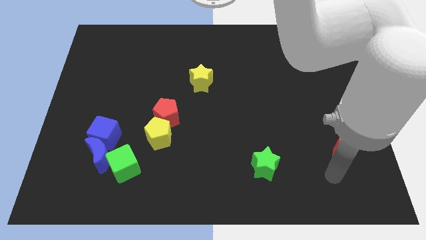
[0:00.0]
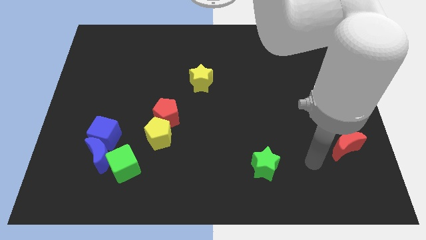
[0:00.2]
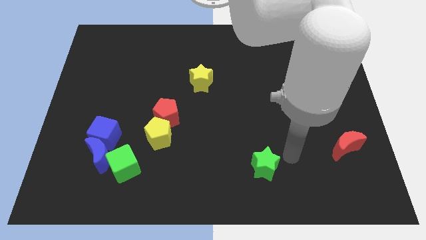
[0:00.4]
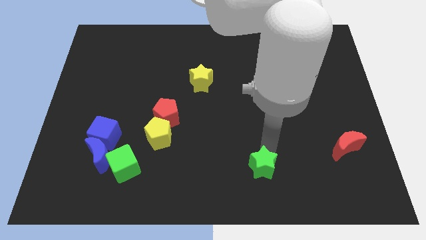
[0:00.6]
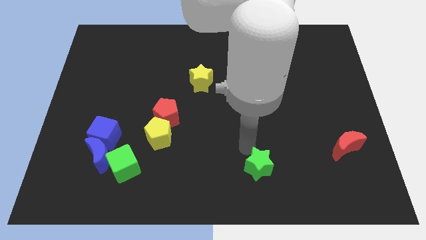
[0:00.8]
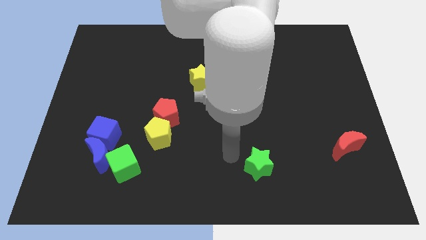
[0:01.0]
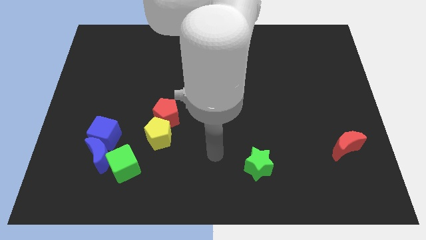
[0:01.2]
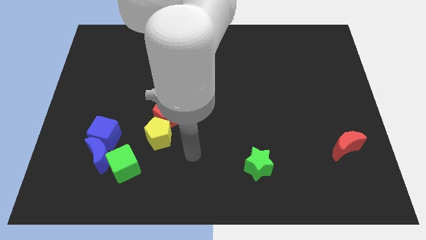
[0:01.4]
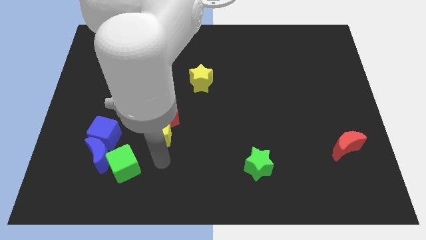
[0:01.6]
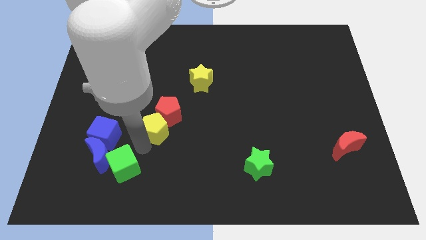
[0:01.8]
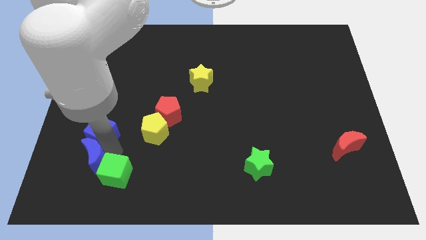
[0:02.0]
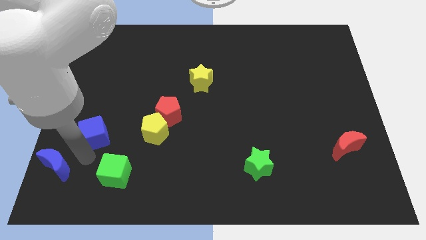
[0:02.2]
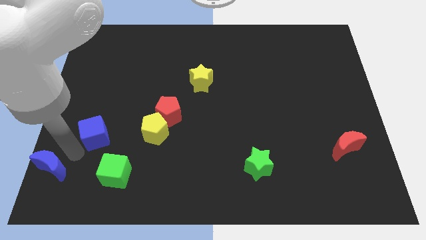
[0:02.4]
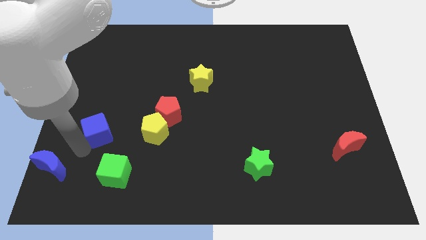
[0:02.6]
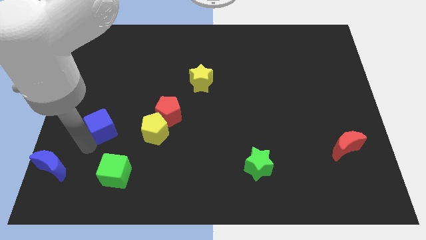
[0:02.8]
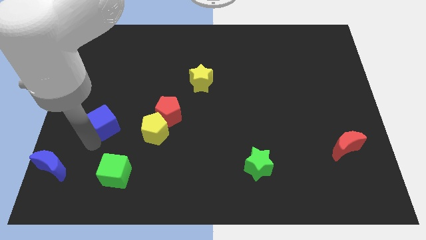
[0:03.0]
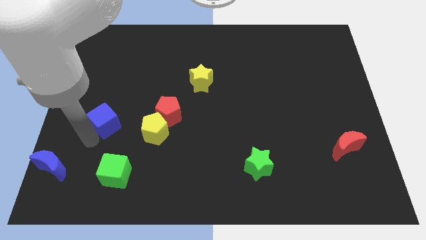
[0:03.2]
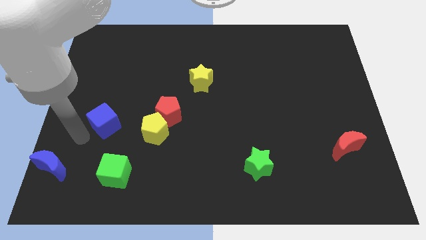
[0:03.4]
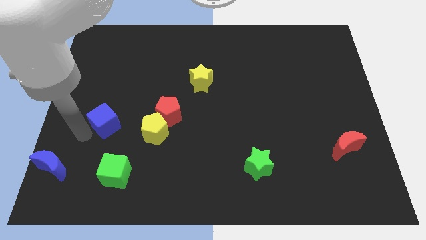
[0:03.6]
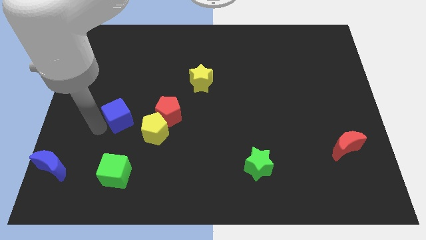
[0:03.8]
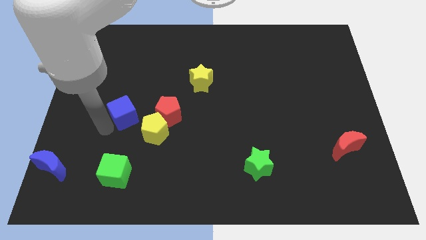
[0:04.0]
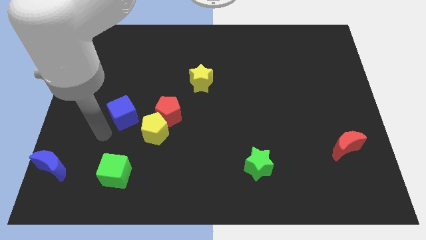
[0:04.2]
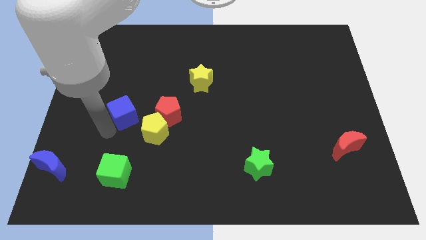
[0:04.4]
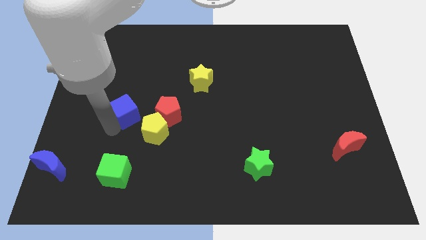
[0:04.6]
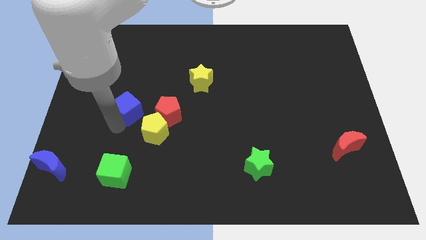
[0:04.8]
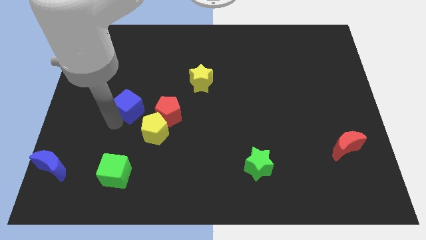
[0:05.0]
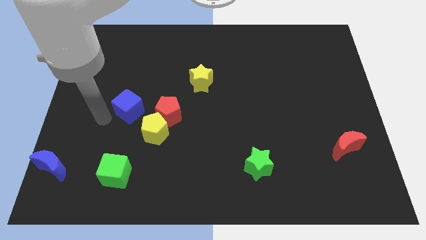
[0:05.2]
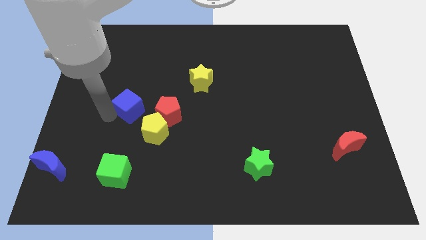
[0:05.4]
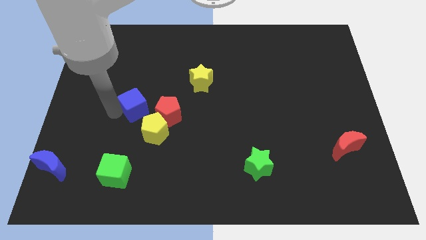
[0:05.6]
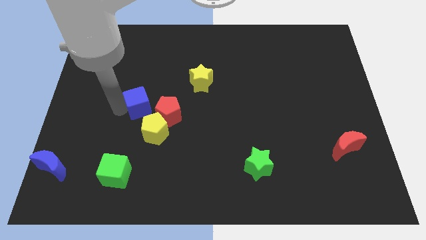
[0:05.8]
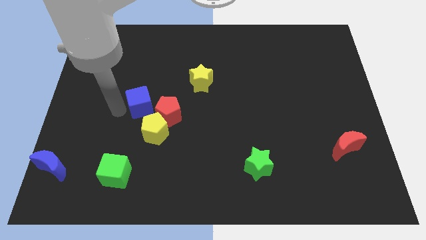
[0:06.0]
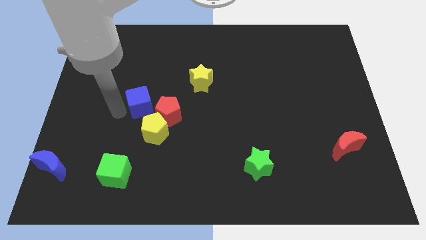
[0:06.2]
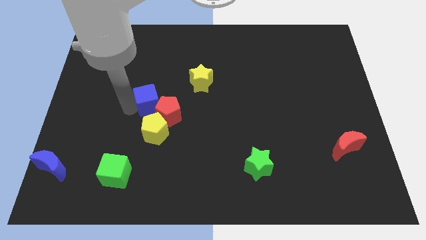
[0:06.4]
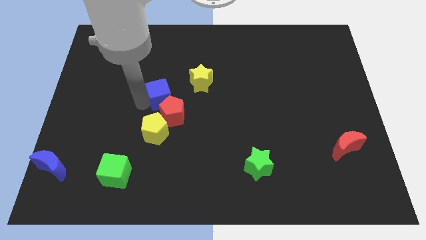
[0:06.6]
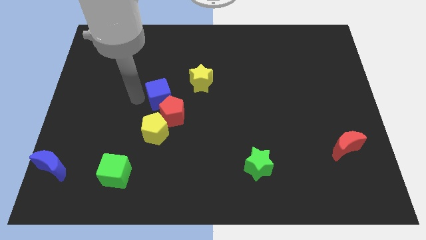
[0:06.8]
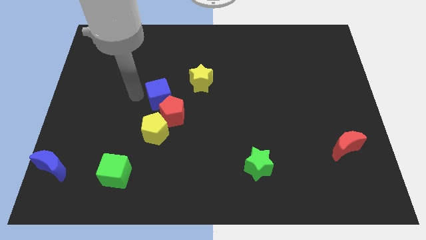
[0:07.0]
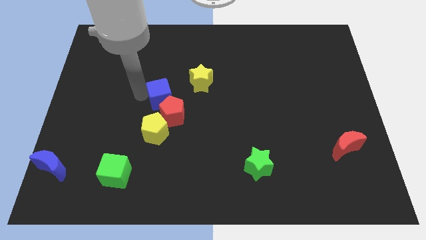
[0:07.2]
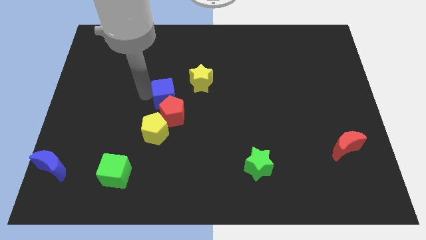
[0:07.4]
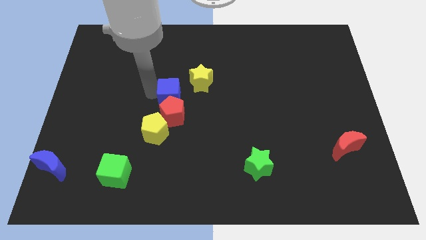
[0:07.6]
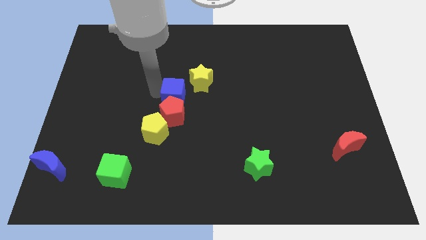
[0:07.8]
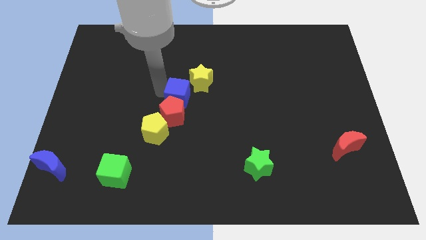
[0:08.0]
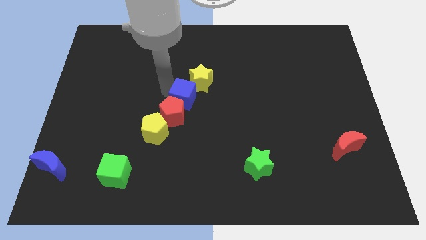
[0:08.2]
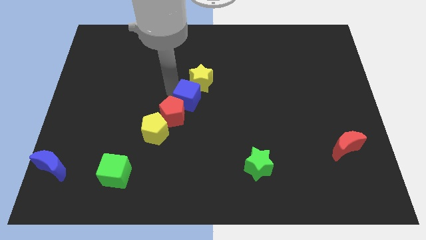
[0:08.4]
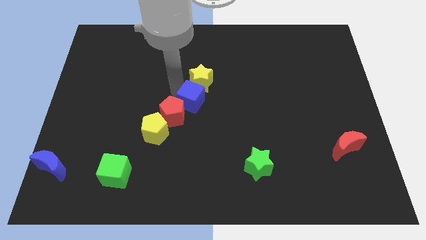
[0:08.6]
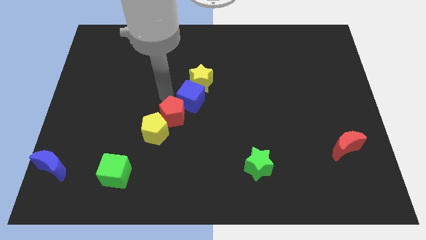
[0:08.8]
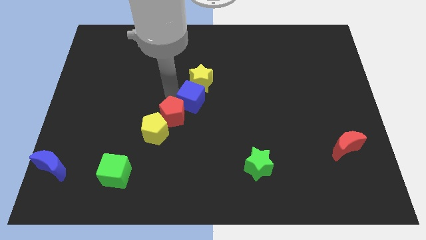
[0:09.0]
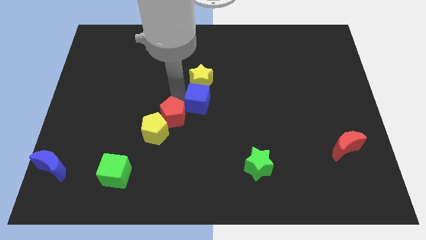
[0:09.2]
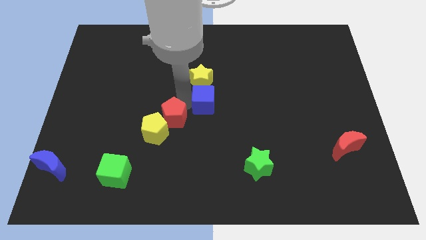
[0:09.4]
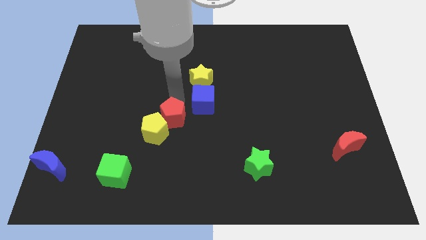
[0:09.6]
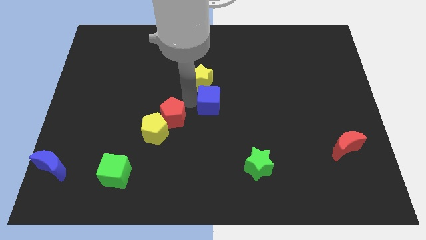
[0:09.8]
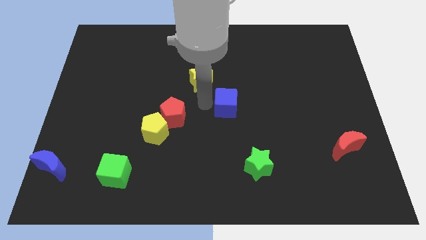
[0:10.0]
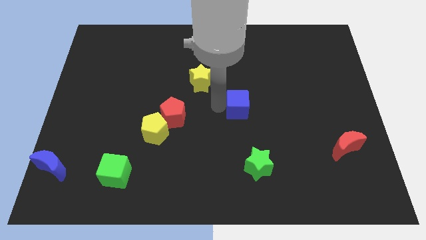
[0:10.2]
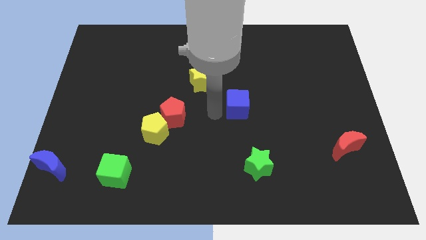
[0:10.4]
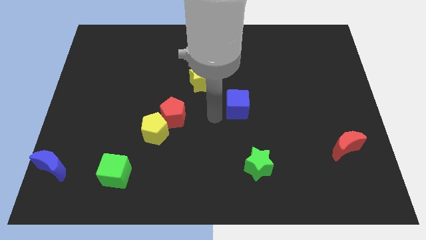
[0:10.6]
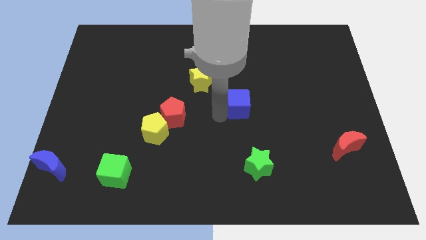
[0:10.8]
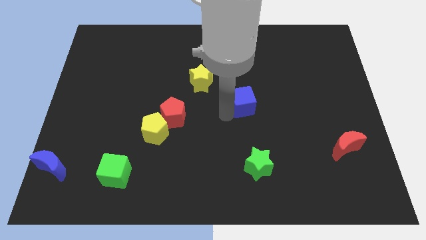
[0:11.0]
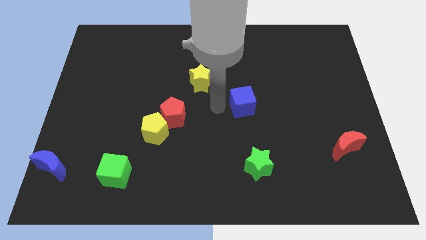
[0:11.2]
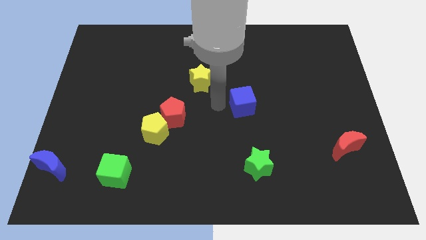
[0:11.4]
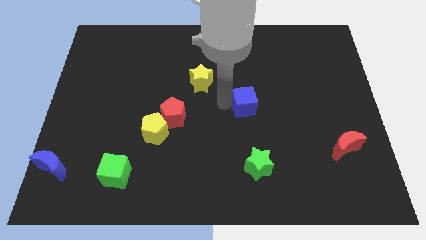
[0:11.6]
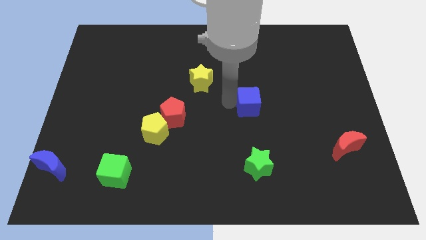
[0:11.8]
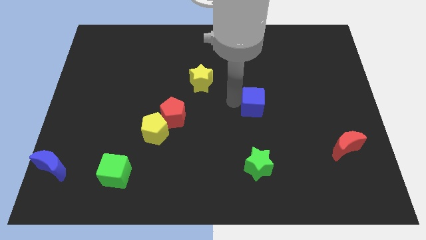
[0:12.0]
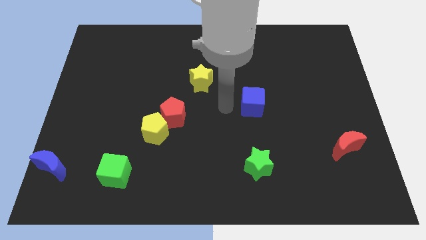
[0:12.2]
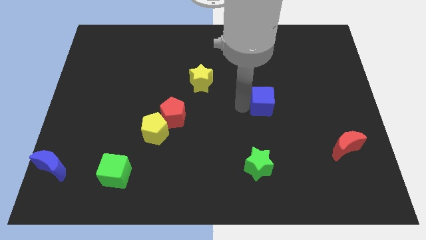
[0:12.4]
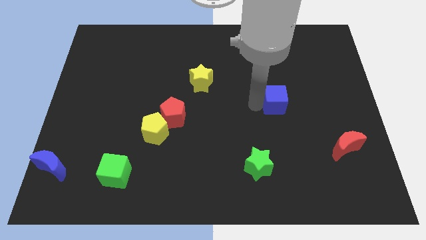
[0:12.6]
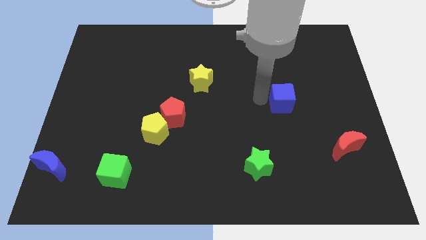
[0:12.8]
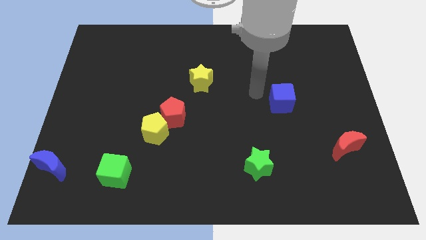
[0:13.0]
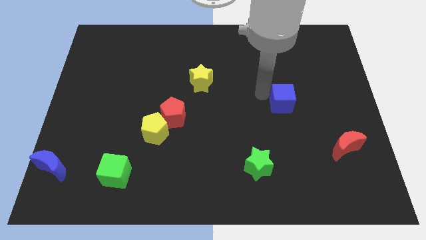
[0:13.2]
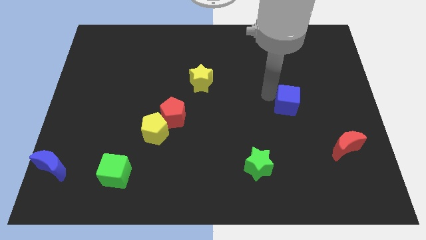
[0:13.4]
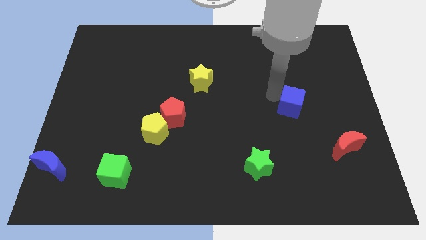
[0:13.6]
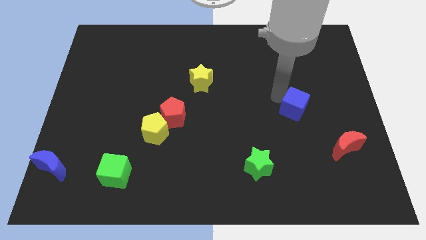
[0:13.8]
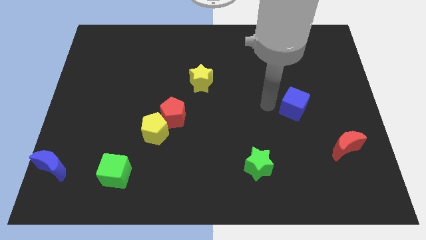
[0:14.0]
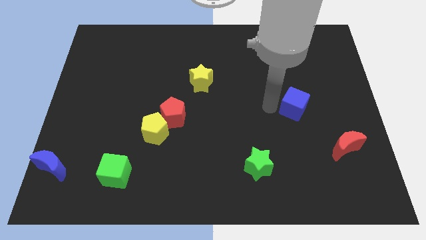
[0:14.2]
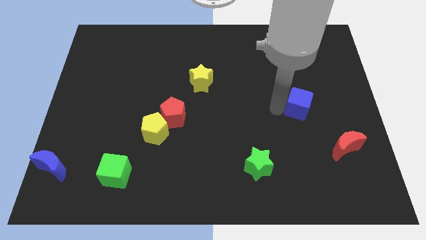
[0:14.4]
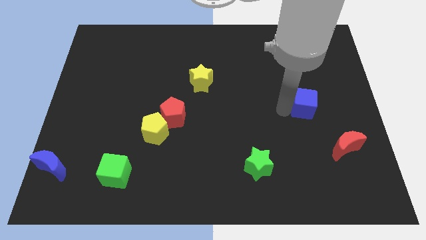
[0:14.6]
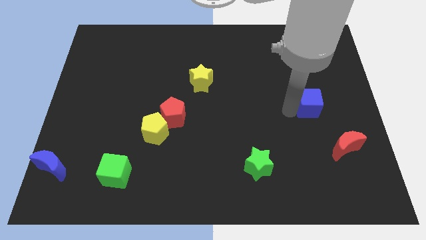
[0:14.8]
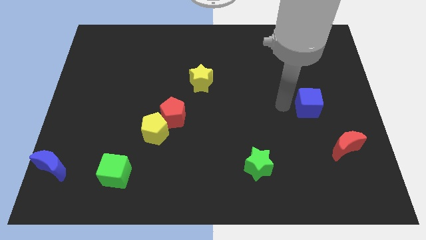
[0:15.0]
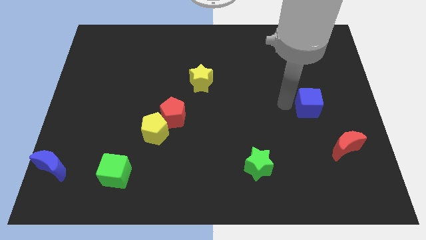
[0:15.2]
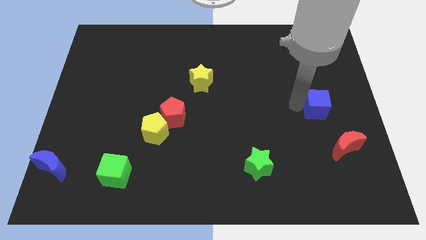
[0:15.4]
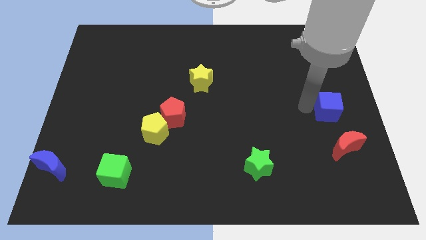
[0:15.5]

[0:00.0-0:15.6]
slide the blue cube to the right side
